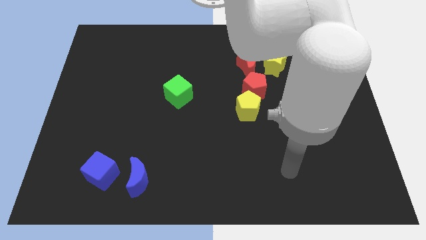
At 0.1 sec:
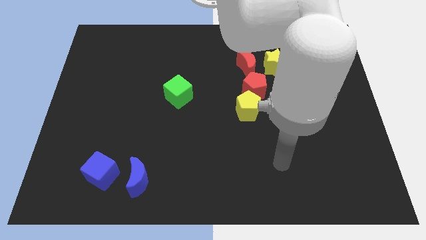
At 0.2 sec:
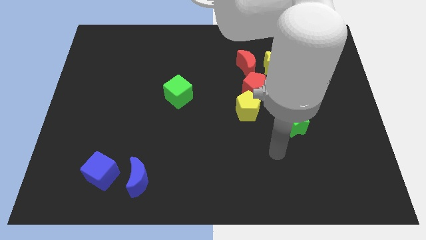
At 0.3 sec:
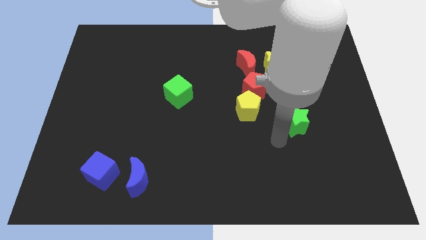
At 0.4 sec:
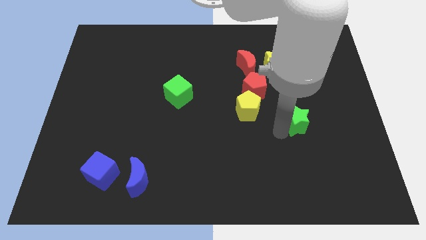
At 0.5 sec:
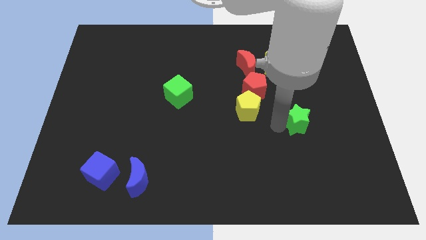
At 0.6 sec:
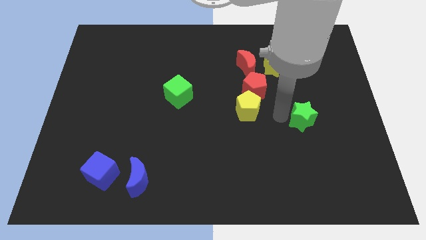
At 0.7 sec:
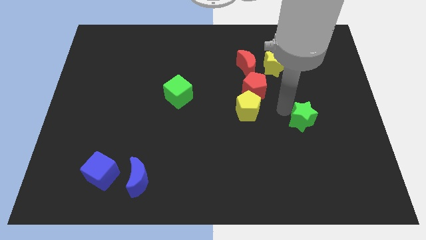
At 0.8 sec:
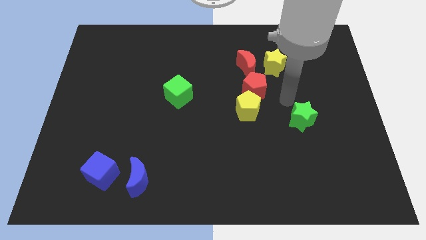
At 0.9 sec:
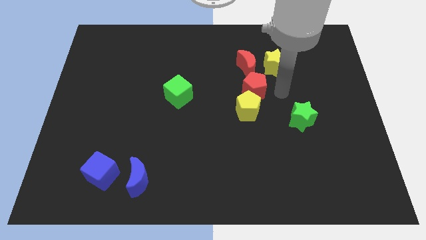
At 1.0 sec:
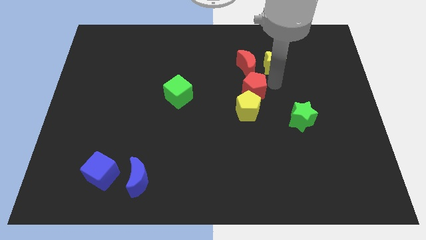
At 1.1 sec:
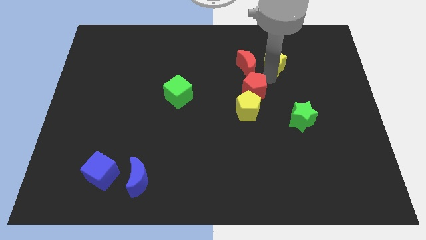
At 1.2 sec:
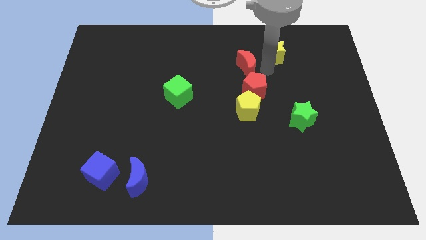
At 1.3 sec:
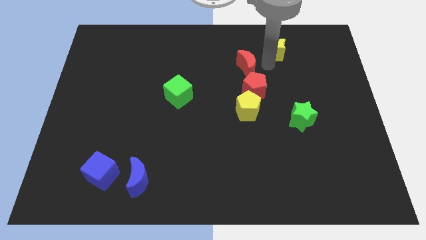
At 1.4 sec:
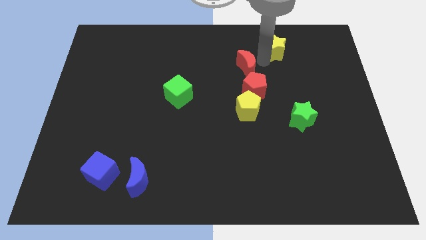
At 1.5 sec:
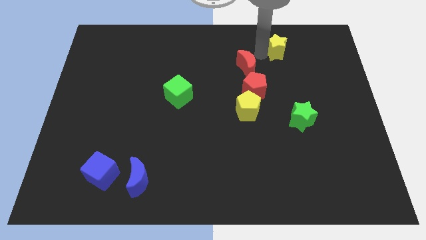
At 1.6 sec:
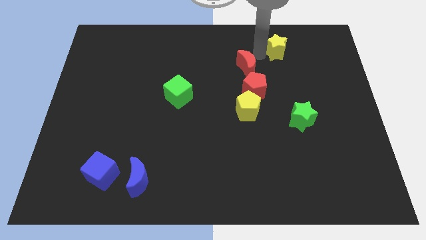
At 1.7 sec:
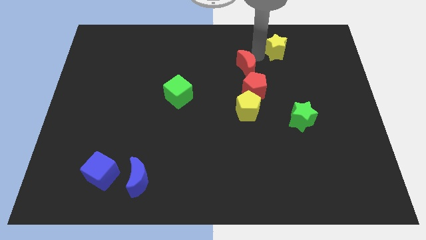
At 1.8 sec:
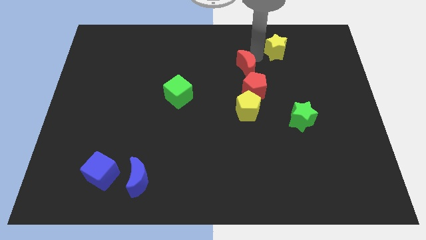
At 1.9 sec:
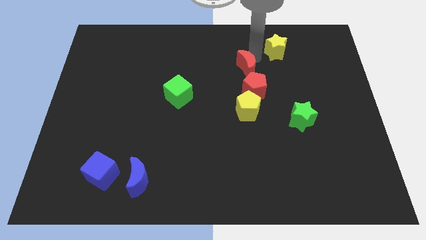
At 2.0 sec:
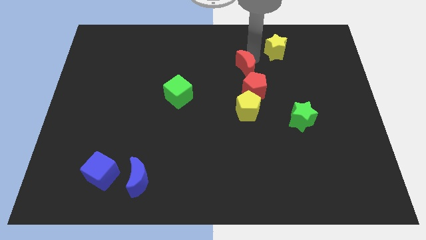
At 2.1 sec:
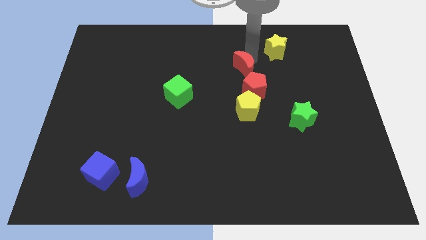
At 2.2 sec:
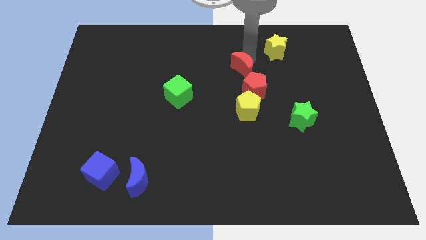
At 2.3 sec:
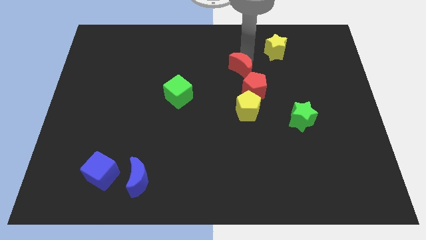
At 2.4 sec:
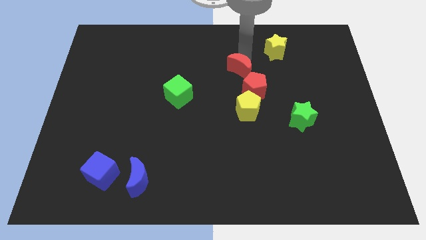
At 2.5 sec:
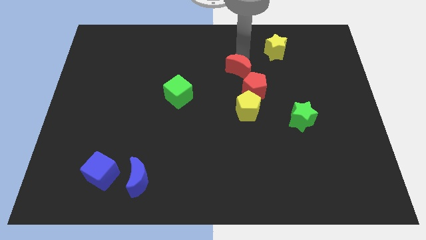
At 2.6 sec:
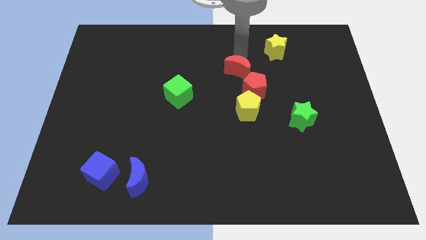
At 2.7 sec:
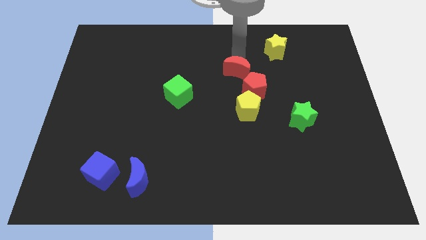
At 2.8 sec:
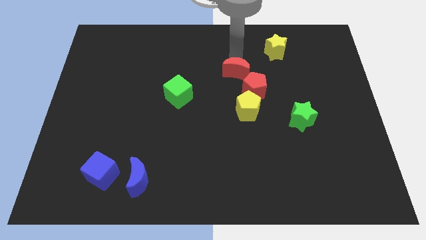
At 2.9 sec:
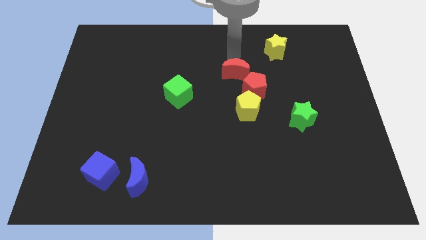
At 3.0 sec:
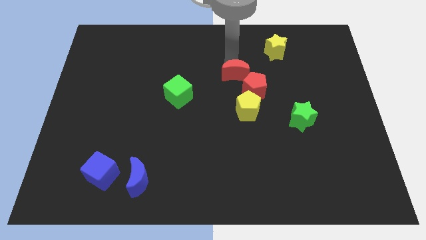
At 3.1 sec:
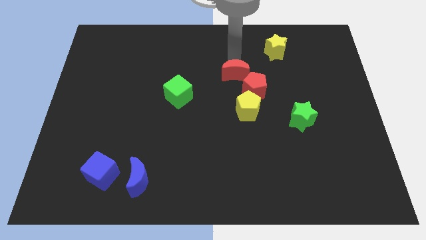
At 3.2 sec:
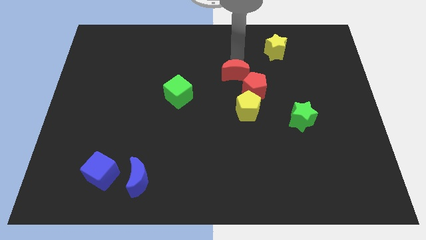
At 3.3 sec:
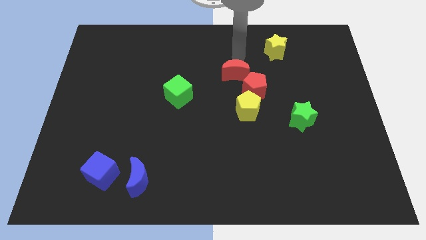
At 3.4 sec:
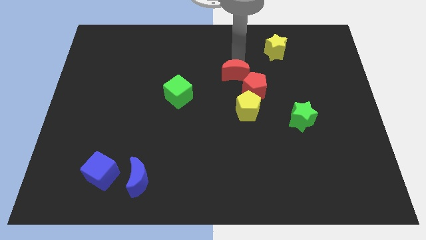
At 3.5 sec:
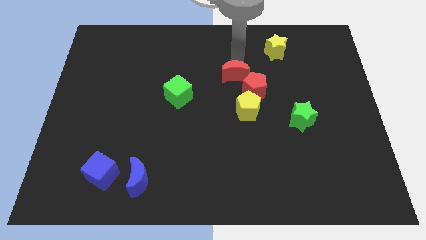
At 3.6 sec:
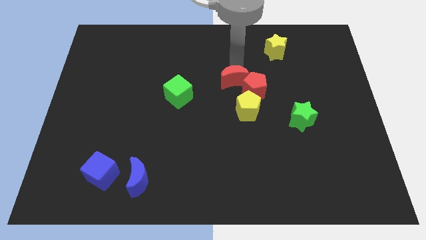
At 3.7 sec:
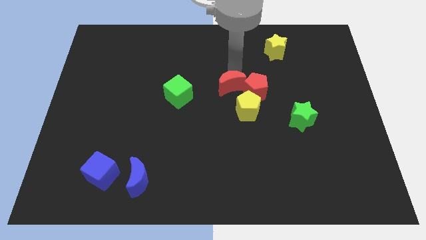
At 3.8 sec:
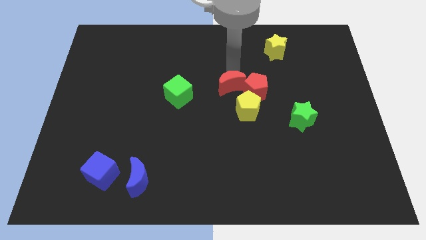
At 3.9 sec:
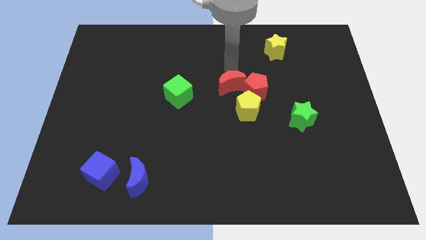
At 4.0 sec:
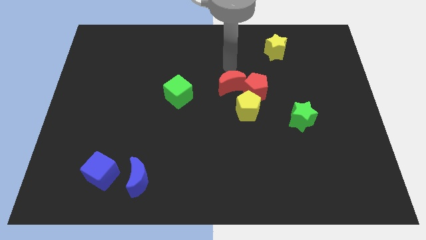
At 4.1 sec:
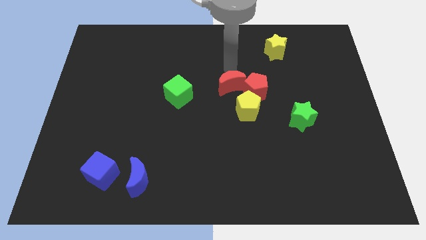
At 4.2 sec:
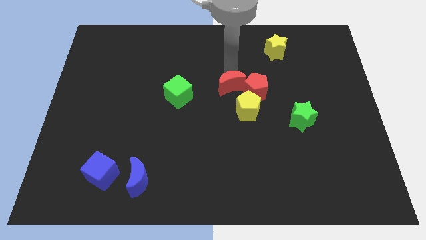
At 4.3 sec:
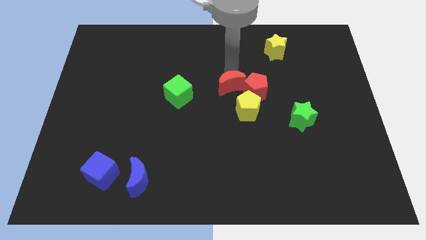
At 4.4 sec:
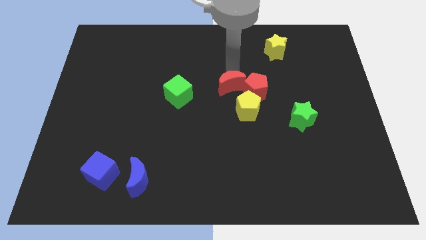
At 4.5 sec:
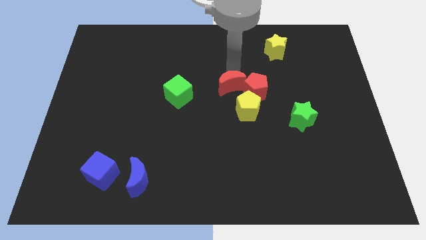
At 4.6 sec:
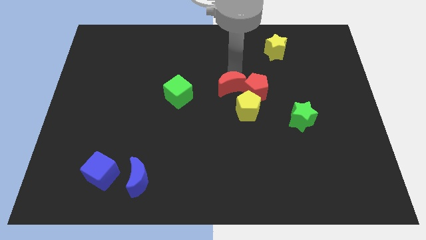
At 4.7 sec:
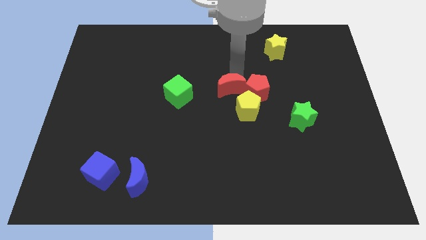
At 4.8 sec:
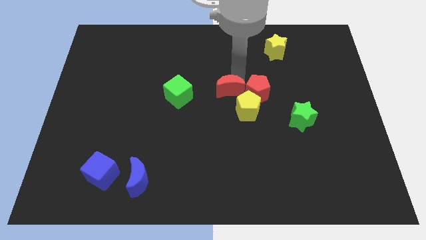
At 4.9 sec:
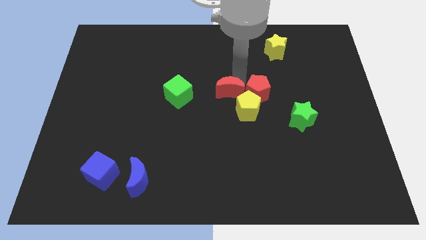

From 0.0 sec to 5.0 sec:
slide the red moon a bit downwards

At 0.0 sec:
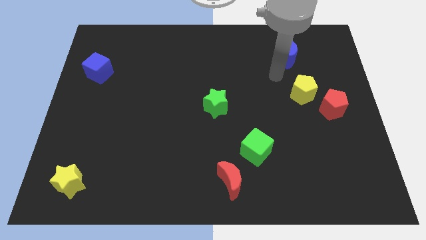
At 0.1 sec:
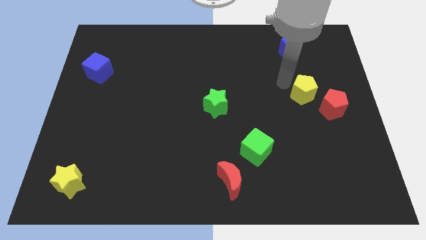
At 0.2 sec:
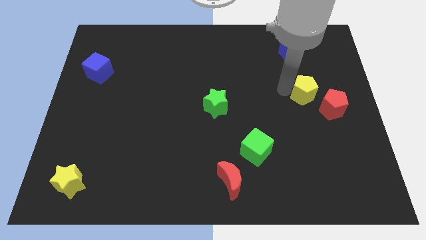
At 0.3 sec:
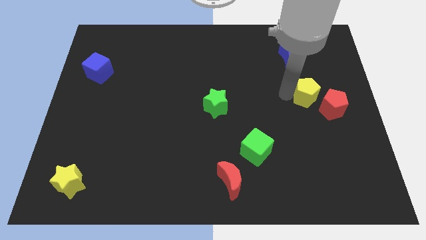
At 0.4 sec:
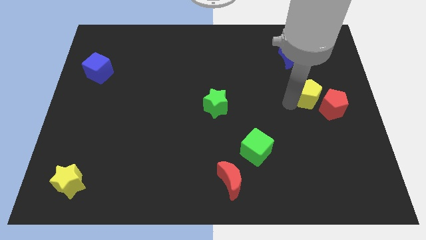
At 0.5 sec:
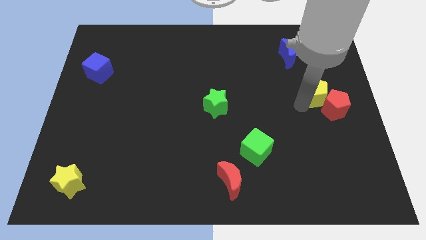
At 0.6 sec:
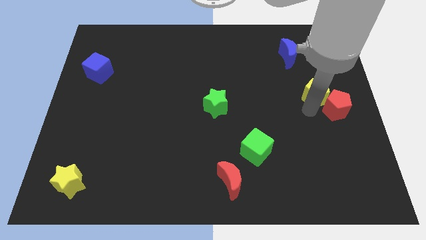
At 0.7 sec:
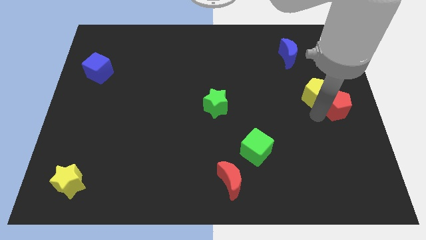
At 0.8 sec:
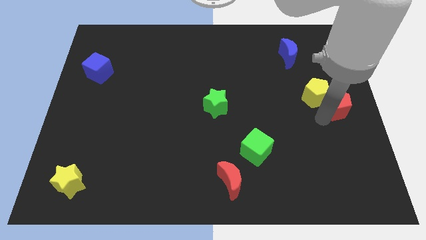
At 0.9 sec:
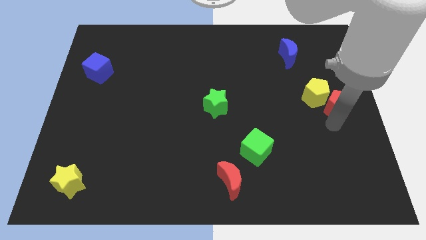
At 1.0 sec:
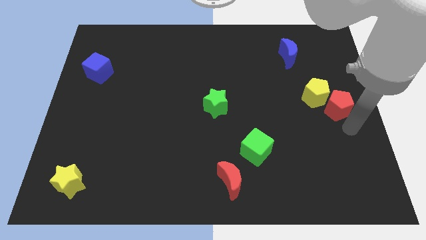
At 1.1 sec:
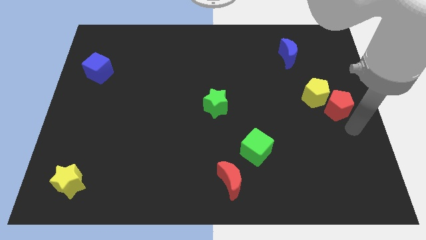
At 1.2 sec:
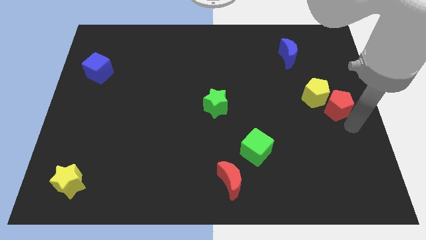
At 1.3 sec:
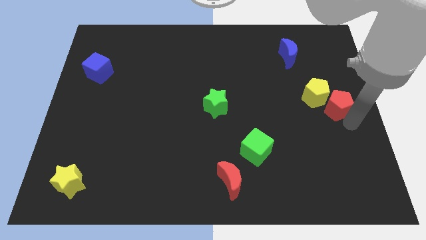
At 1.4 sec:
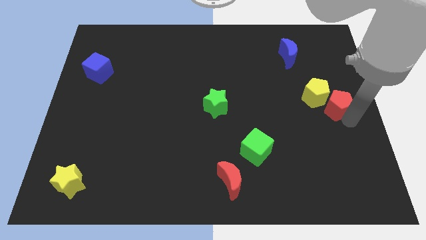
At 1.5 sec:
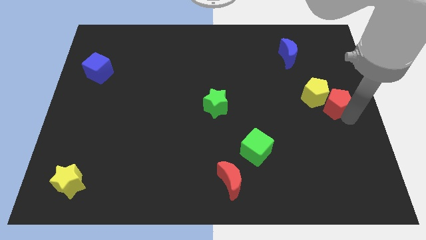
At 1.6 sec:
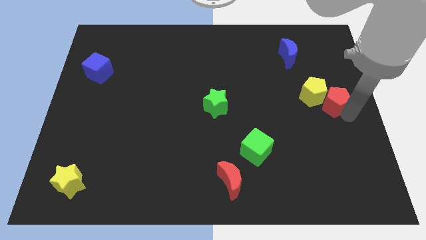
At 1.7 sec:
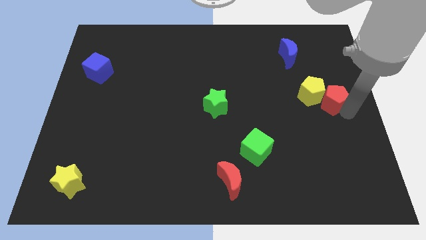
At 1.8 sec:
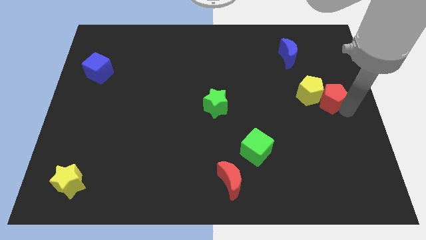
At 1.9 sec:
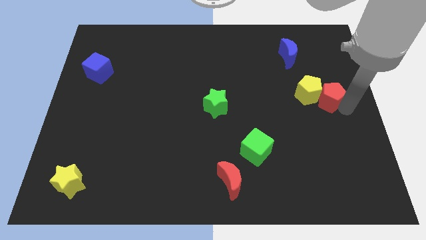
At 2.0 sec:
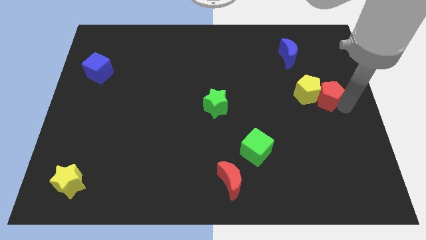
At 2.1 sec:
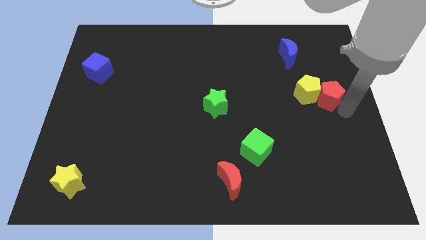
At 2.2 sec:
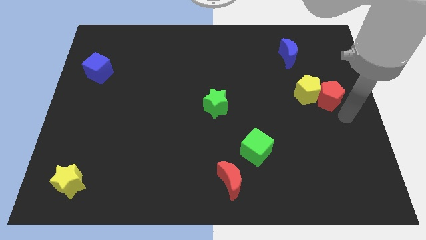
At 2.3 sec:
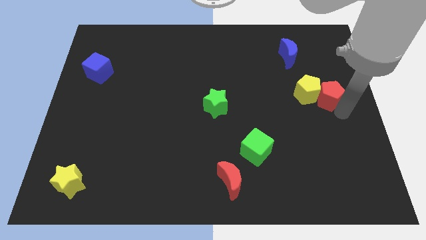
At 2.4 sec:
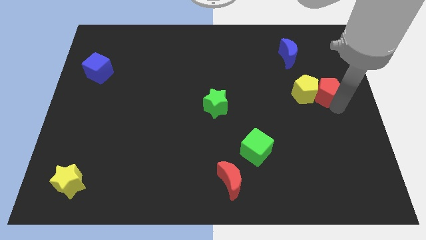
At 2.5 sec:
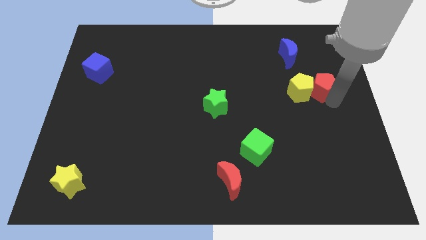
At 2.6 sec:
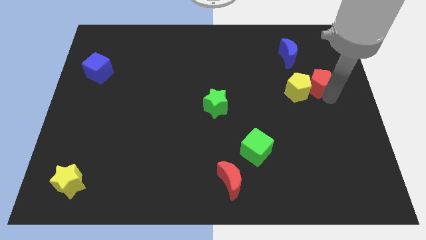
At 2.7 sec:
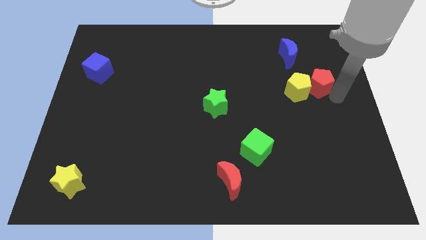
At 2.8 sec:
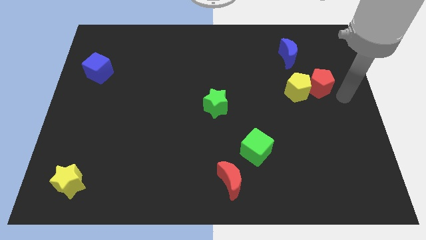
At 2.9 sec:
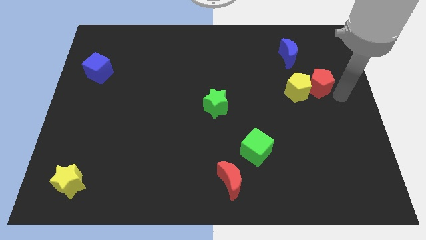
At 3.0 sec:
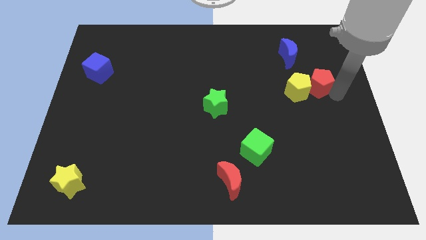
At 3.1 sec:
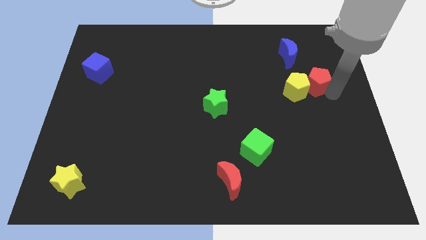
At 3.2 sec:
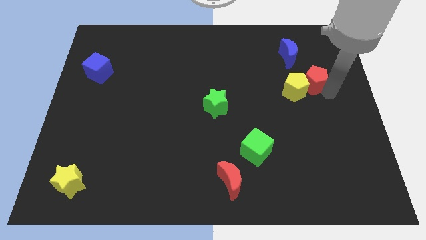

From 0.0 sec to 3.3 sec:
slightly push the red pentagon upwards and left
